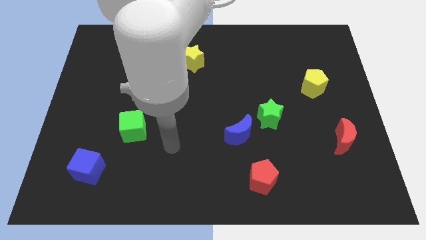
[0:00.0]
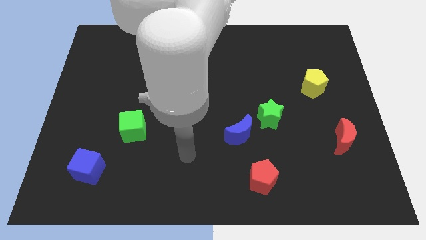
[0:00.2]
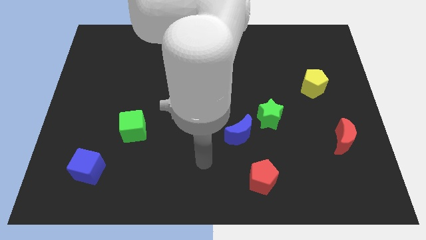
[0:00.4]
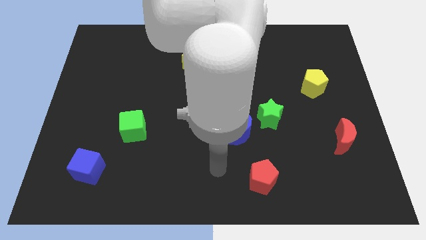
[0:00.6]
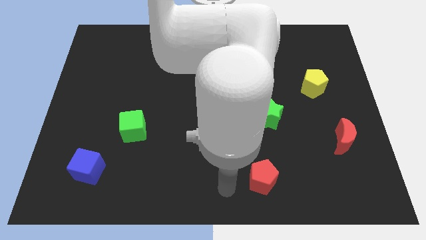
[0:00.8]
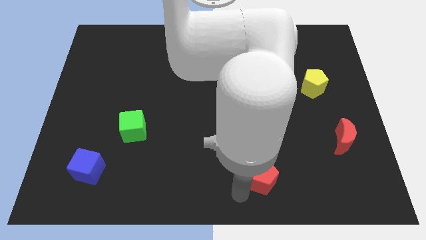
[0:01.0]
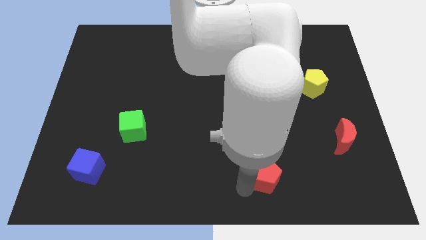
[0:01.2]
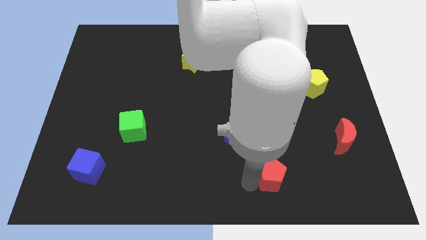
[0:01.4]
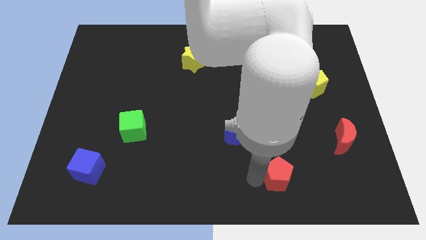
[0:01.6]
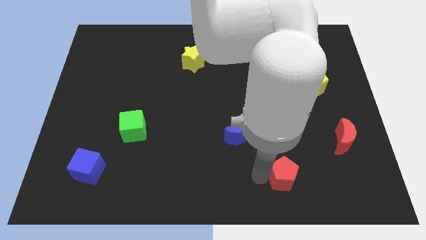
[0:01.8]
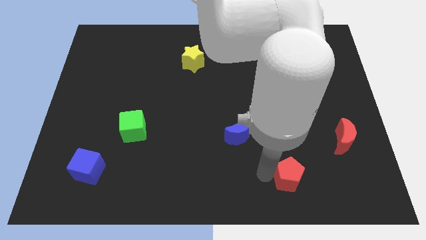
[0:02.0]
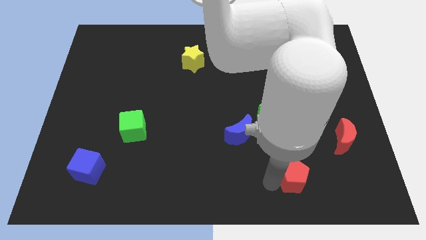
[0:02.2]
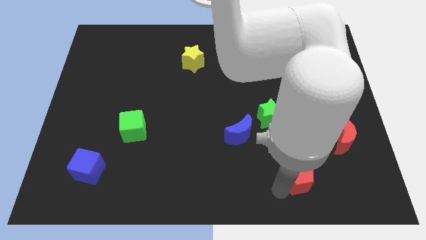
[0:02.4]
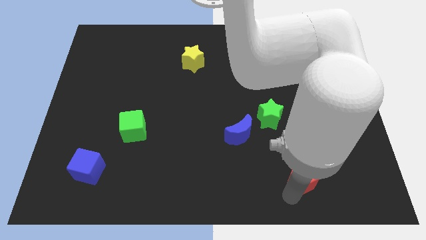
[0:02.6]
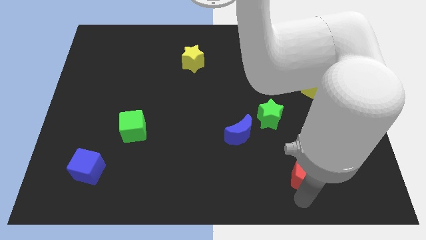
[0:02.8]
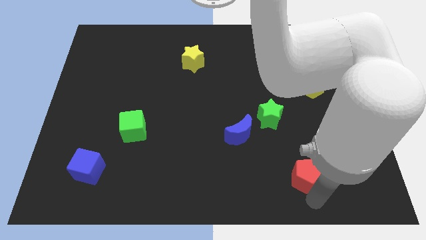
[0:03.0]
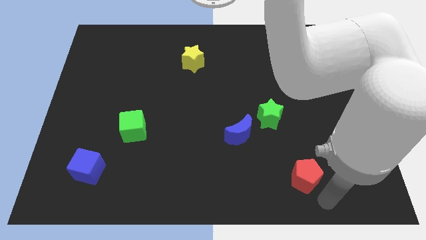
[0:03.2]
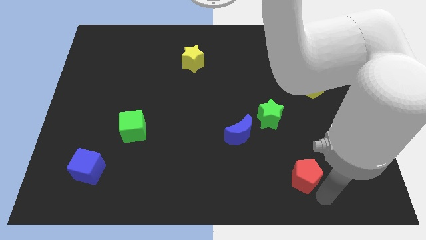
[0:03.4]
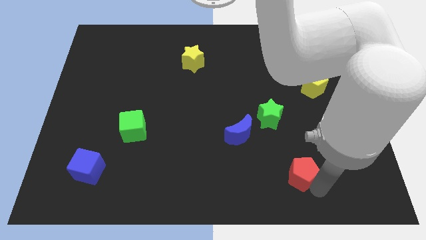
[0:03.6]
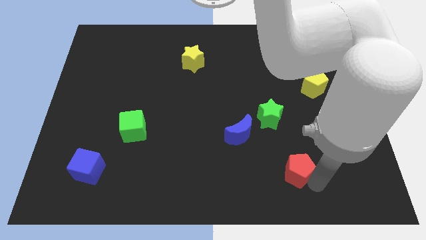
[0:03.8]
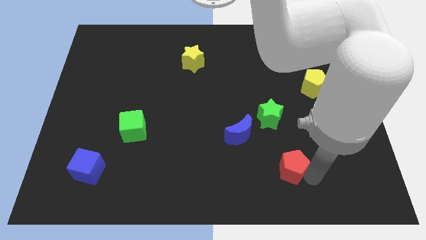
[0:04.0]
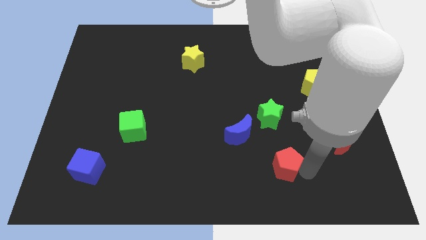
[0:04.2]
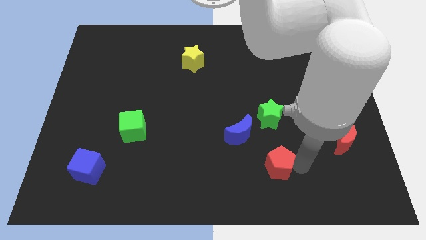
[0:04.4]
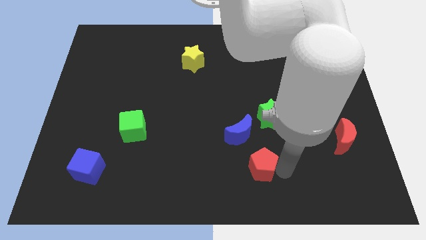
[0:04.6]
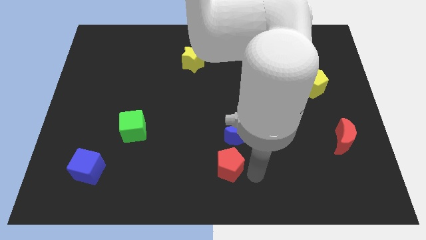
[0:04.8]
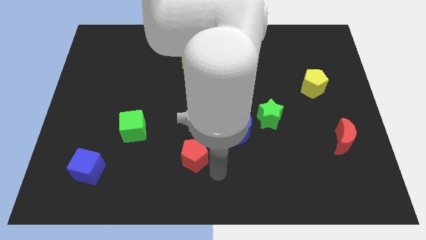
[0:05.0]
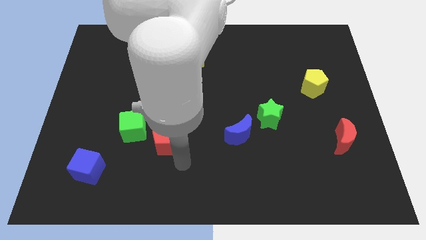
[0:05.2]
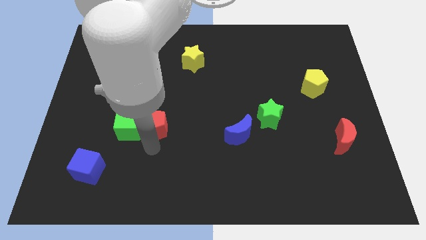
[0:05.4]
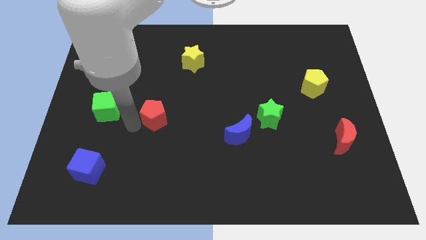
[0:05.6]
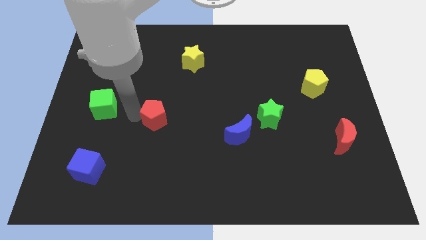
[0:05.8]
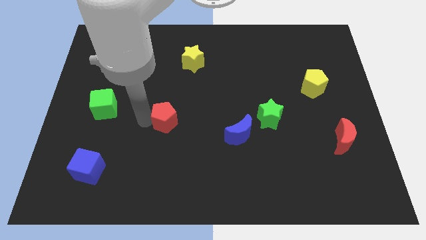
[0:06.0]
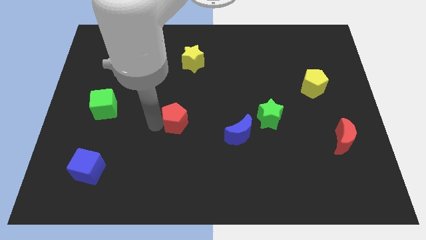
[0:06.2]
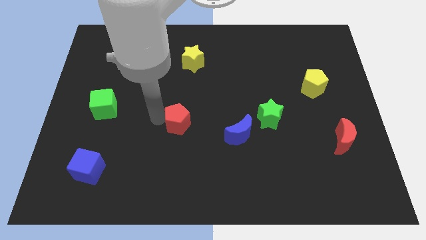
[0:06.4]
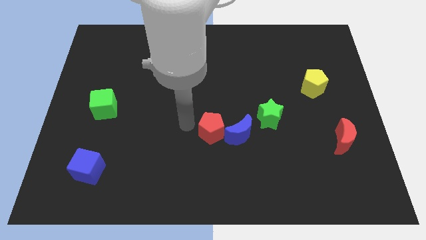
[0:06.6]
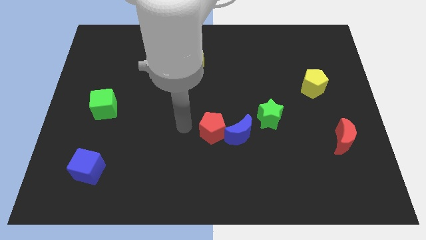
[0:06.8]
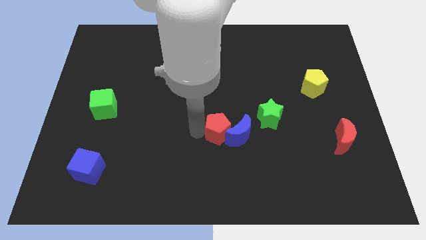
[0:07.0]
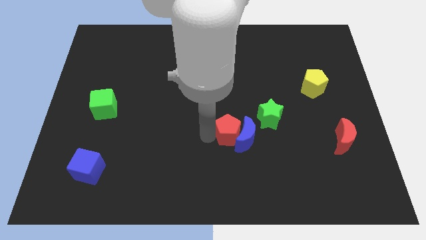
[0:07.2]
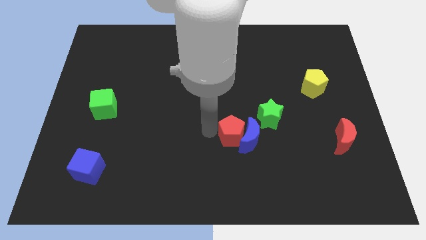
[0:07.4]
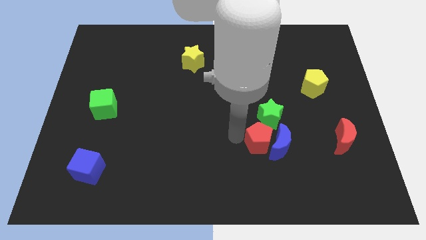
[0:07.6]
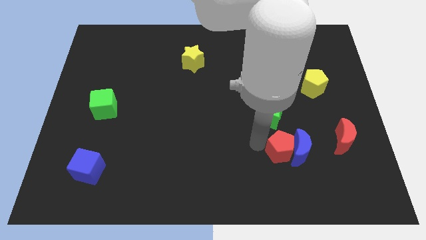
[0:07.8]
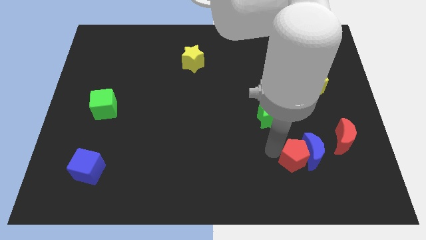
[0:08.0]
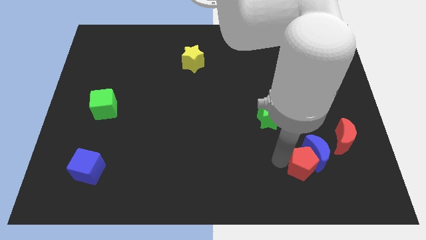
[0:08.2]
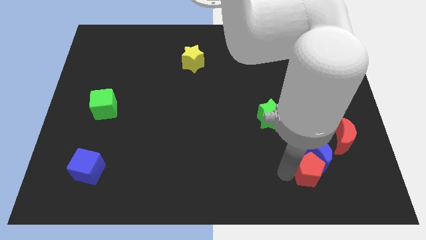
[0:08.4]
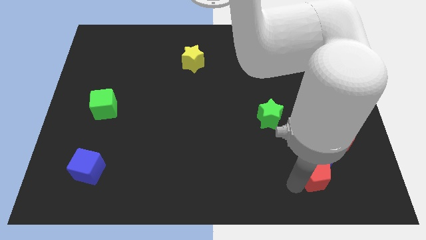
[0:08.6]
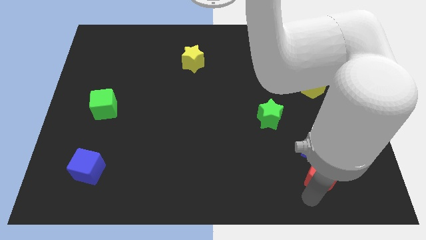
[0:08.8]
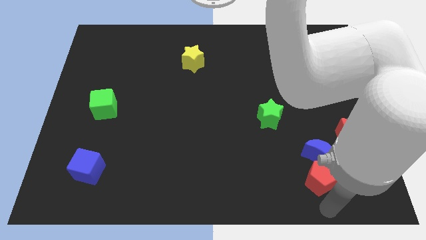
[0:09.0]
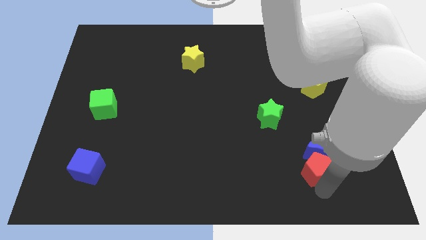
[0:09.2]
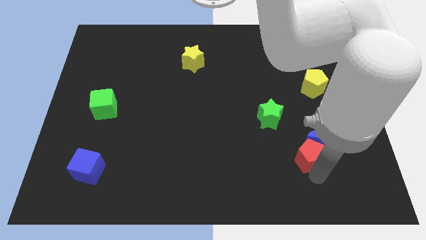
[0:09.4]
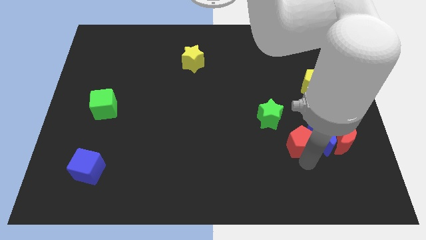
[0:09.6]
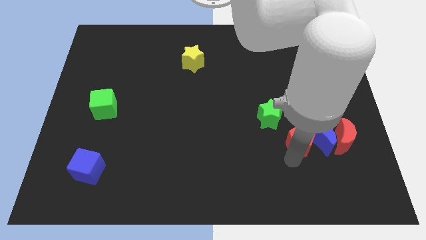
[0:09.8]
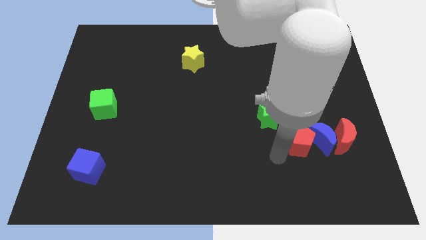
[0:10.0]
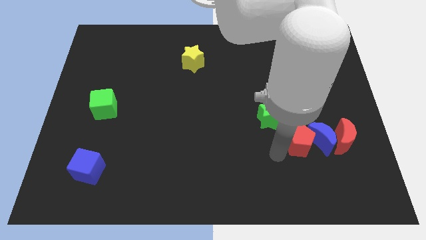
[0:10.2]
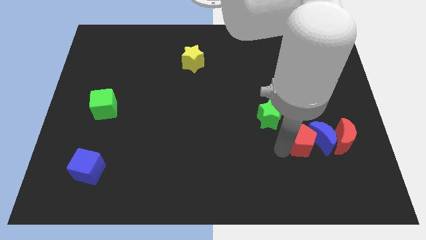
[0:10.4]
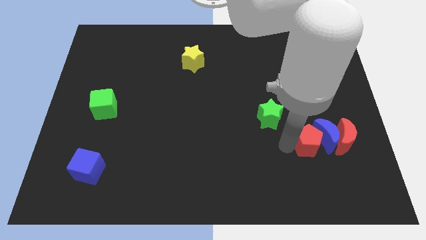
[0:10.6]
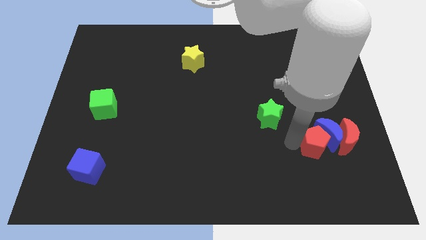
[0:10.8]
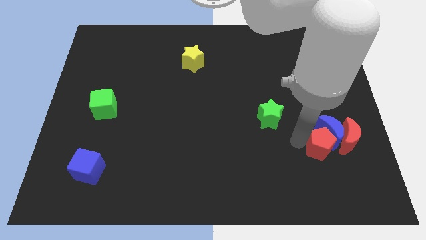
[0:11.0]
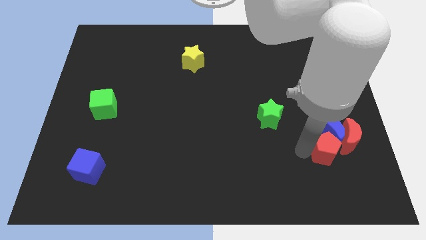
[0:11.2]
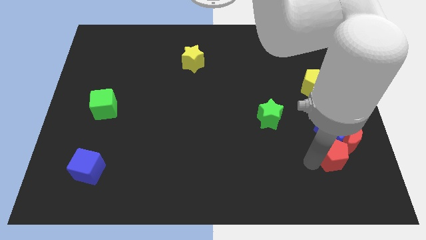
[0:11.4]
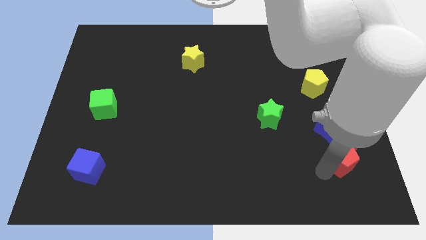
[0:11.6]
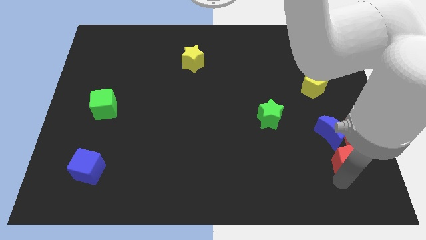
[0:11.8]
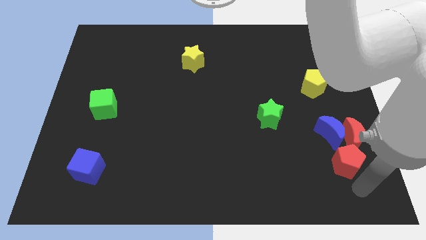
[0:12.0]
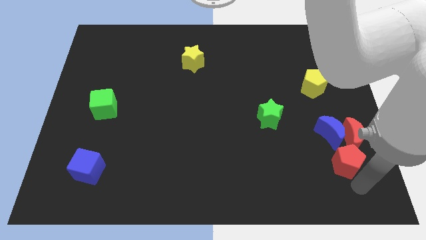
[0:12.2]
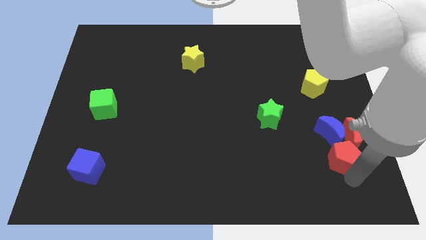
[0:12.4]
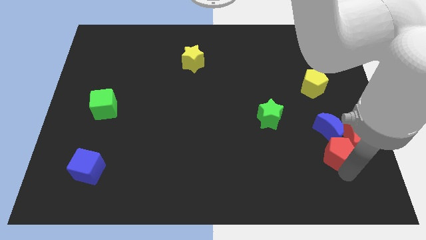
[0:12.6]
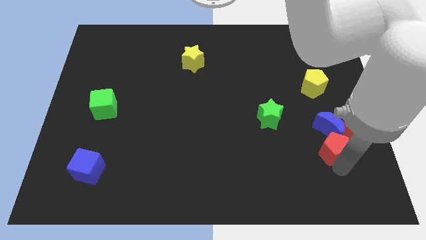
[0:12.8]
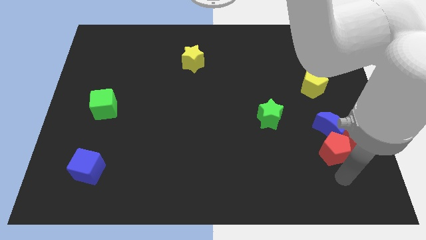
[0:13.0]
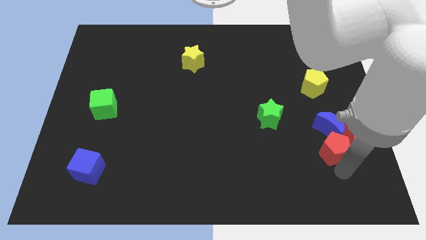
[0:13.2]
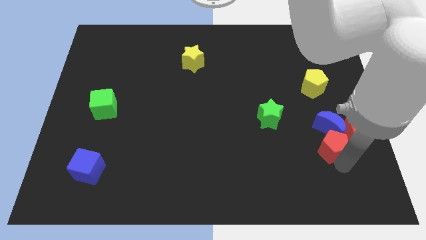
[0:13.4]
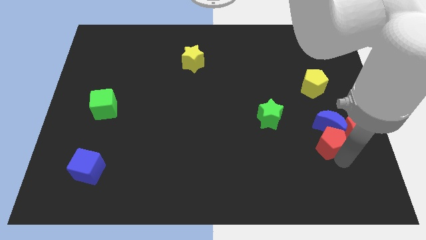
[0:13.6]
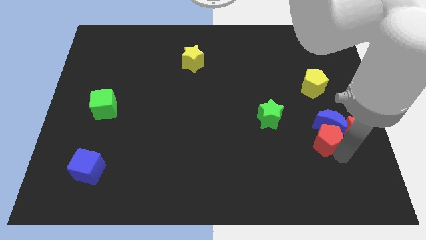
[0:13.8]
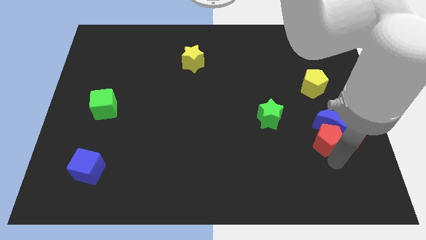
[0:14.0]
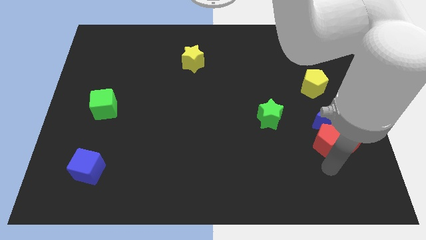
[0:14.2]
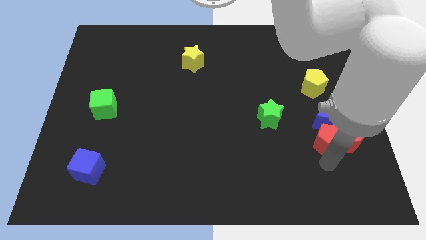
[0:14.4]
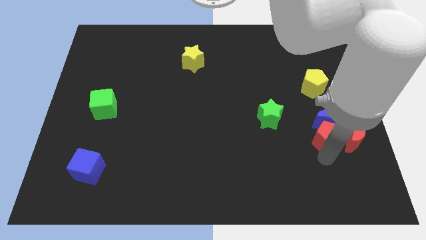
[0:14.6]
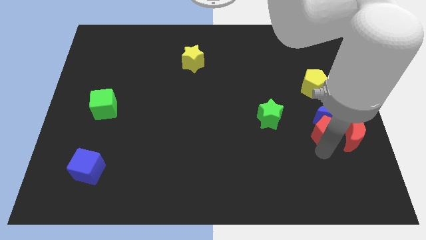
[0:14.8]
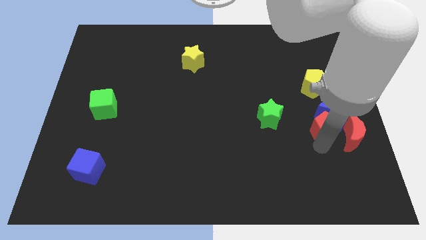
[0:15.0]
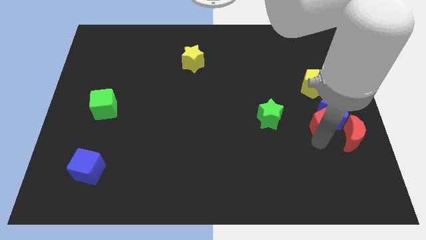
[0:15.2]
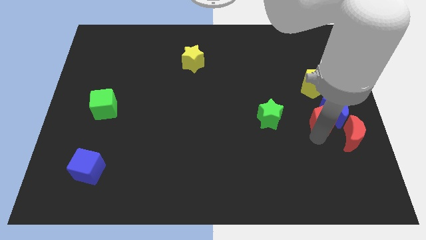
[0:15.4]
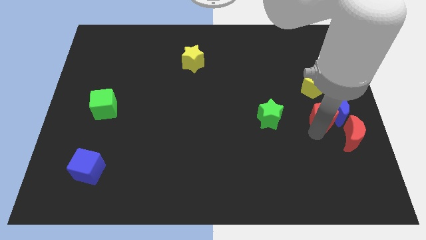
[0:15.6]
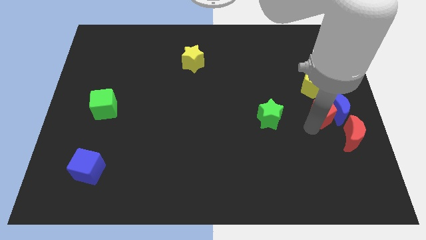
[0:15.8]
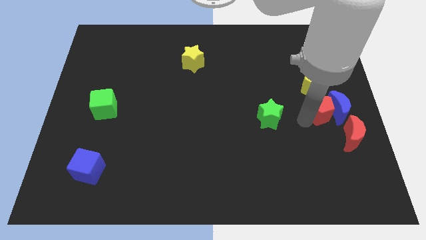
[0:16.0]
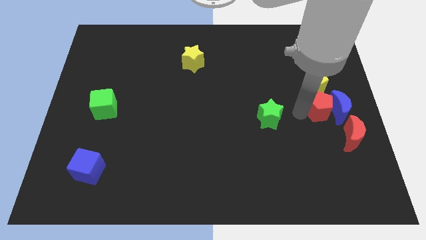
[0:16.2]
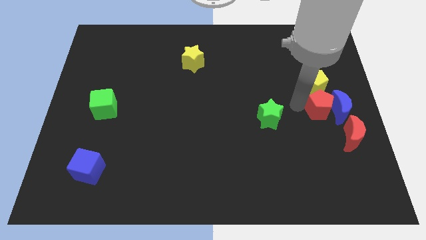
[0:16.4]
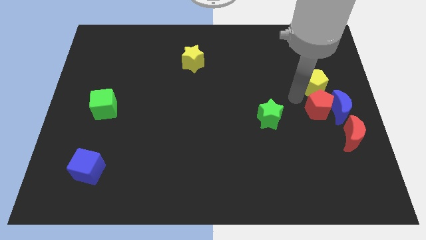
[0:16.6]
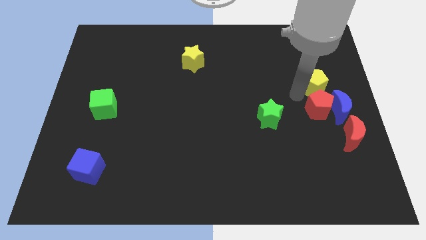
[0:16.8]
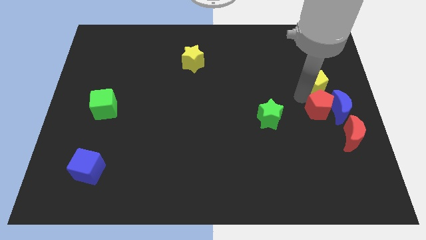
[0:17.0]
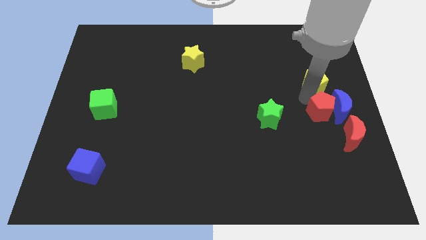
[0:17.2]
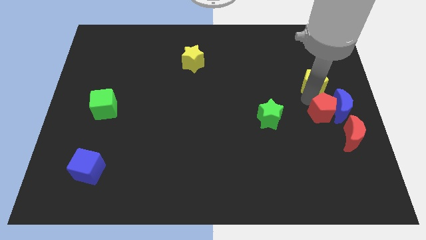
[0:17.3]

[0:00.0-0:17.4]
push the red pentagon to the center right
